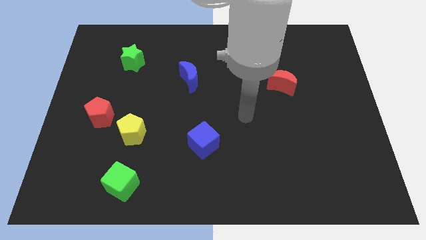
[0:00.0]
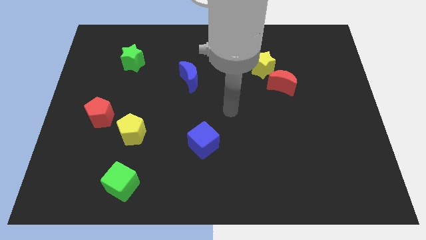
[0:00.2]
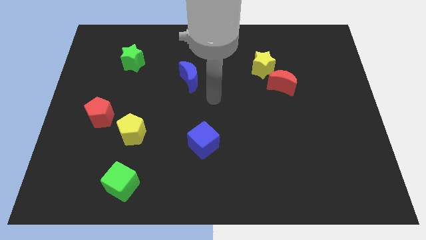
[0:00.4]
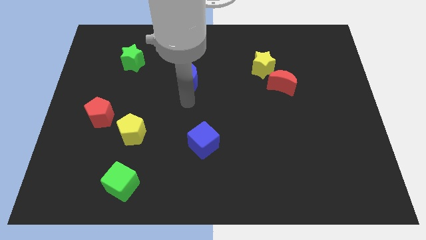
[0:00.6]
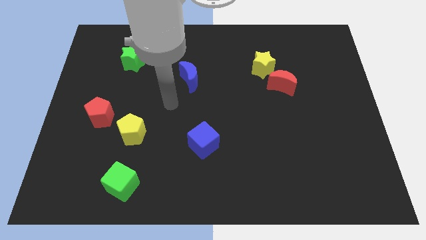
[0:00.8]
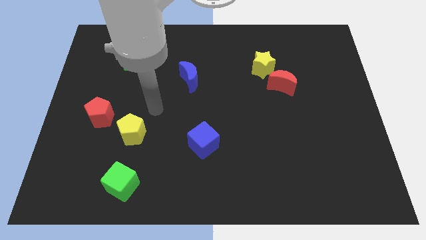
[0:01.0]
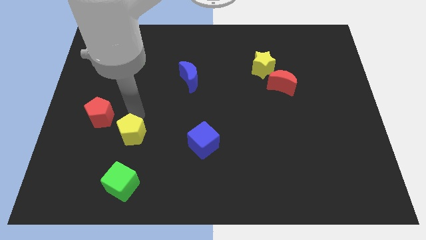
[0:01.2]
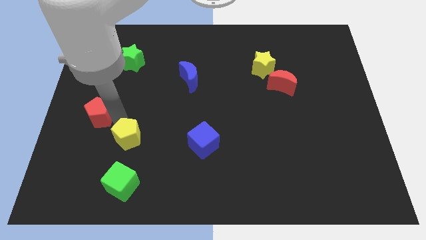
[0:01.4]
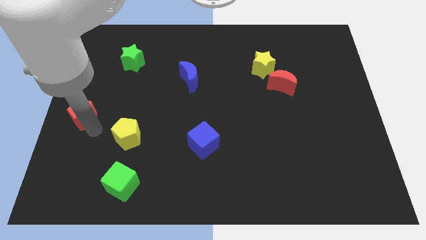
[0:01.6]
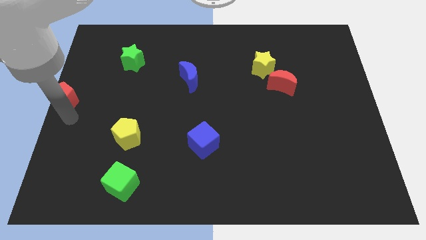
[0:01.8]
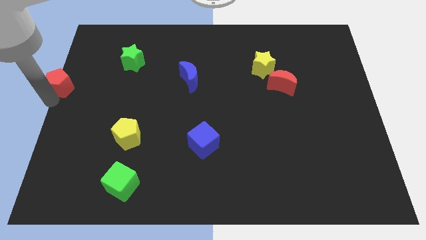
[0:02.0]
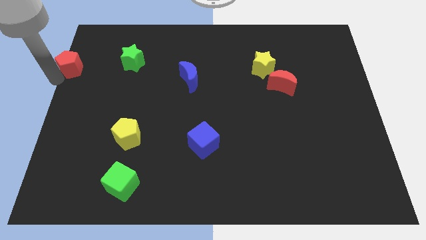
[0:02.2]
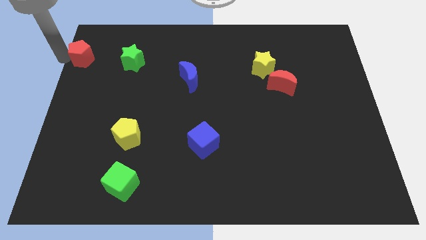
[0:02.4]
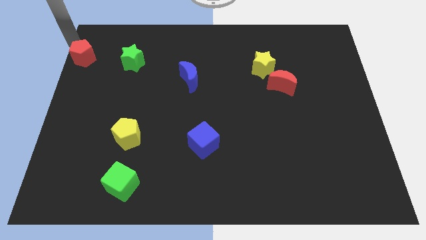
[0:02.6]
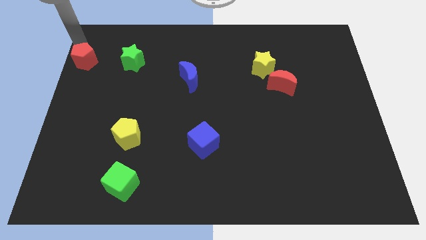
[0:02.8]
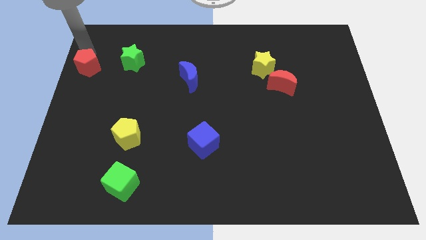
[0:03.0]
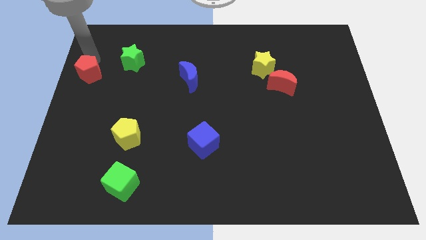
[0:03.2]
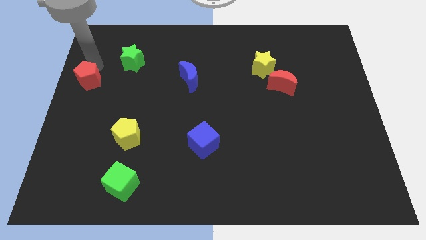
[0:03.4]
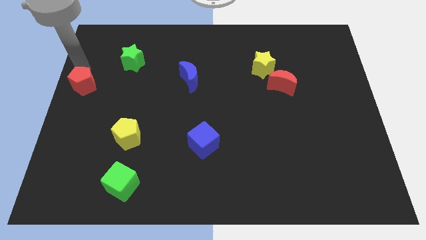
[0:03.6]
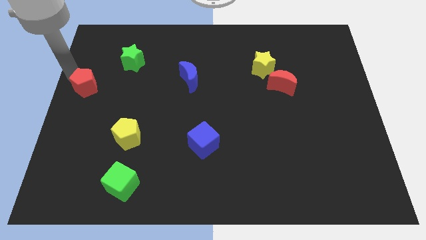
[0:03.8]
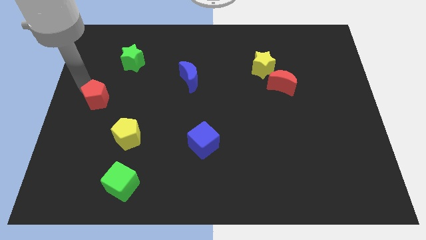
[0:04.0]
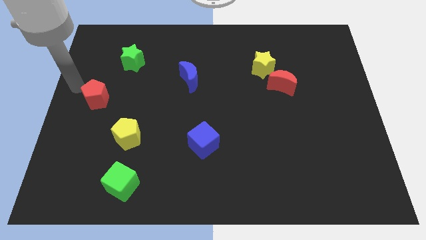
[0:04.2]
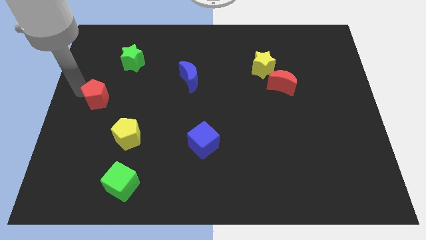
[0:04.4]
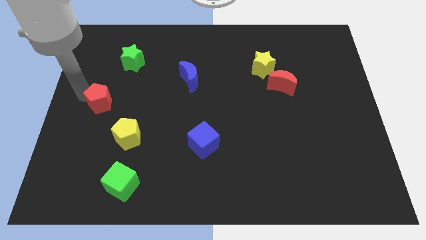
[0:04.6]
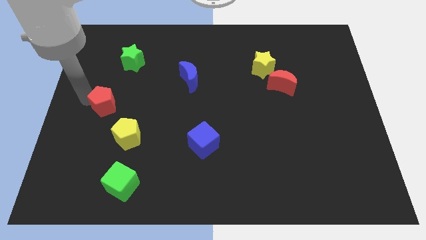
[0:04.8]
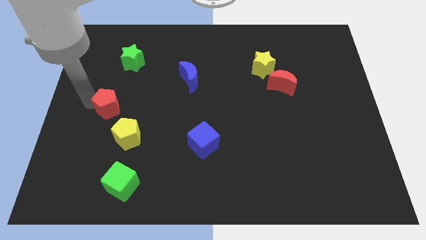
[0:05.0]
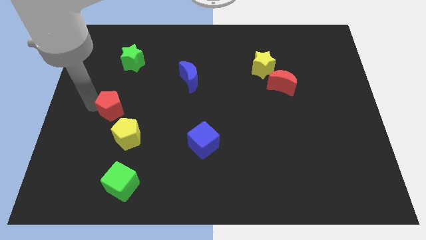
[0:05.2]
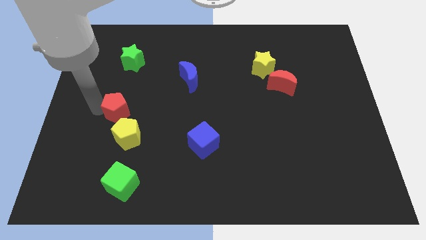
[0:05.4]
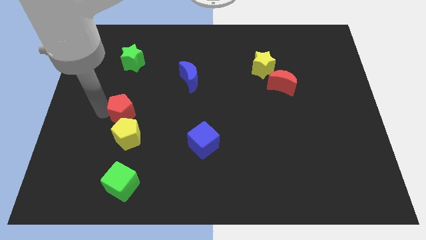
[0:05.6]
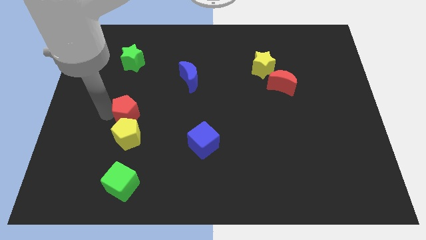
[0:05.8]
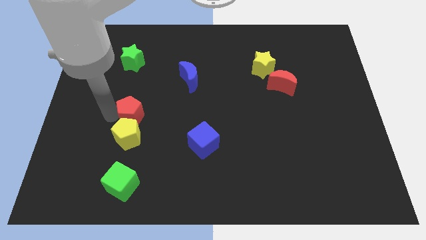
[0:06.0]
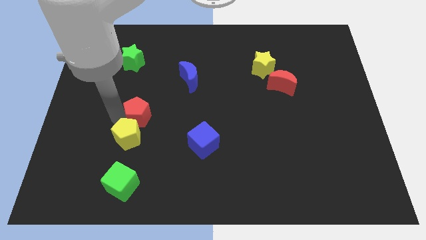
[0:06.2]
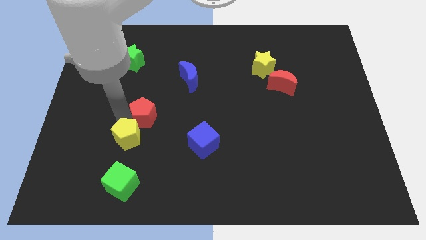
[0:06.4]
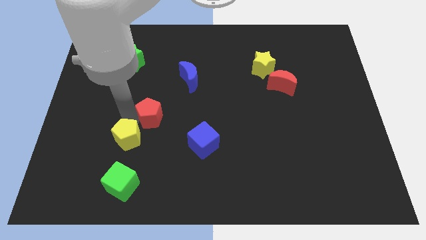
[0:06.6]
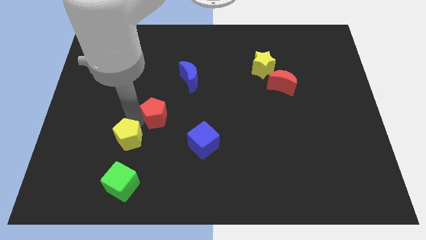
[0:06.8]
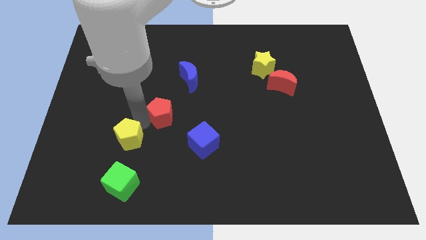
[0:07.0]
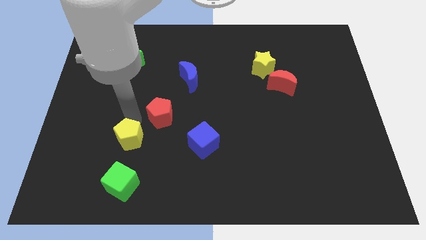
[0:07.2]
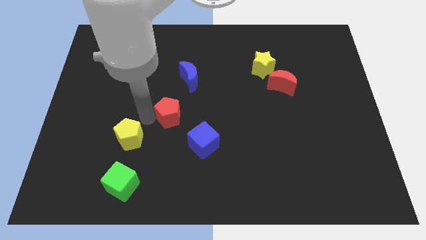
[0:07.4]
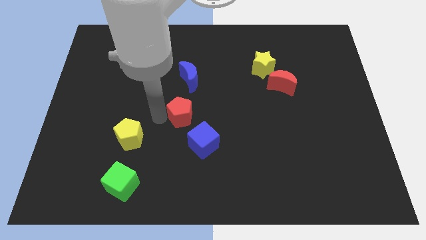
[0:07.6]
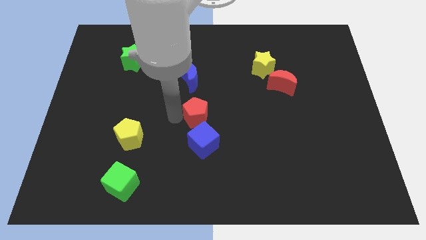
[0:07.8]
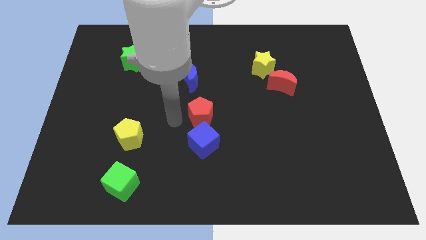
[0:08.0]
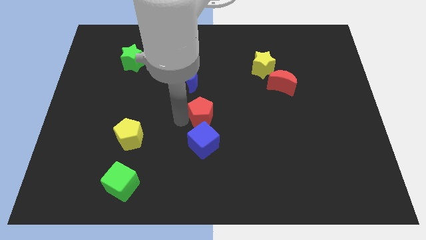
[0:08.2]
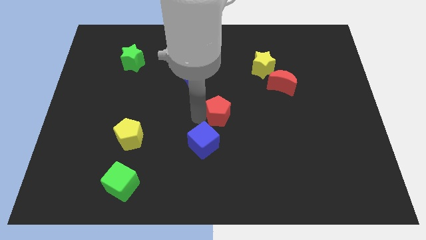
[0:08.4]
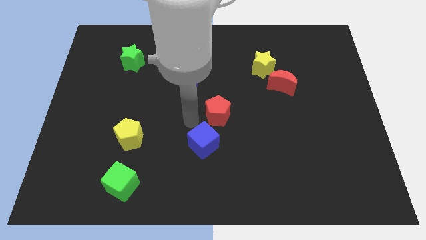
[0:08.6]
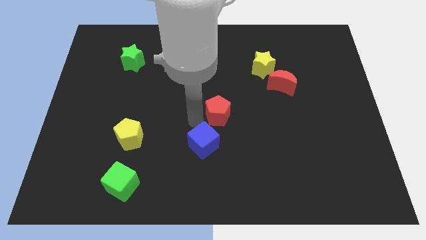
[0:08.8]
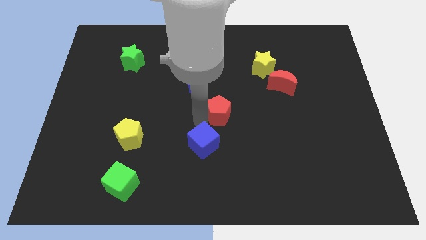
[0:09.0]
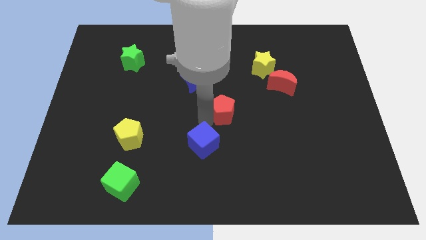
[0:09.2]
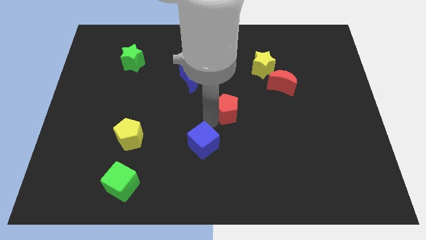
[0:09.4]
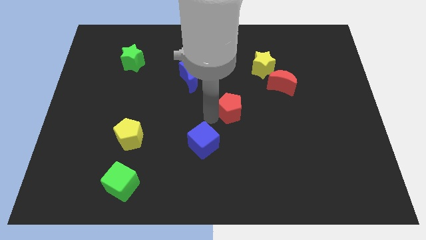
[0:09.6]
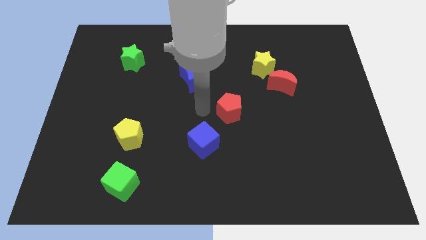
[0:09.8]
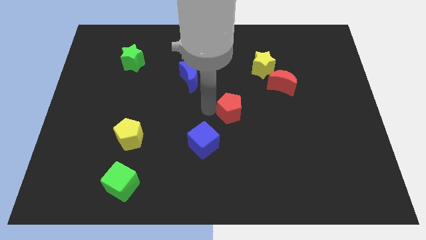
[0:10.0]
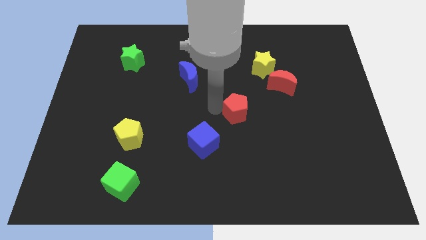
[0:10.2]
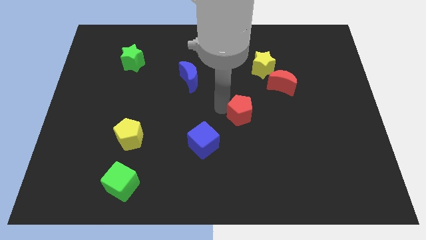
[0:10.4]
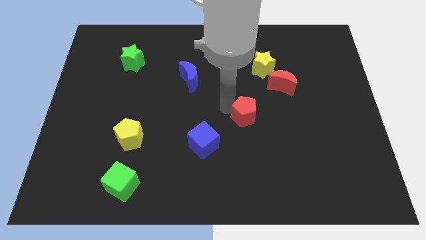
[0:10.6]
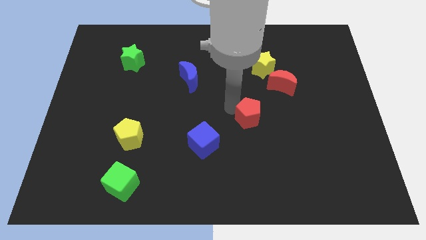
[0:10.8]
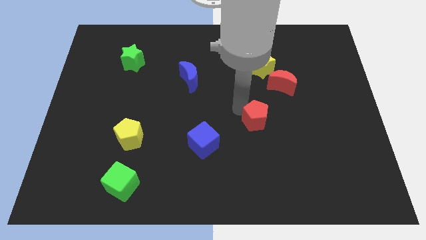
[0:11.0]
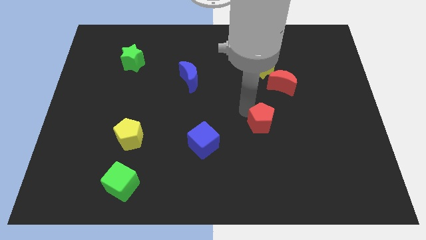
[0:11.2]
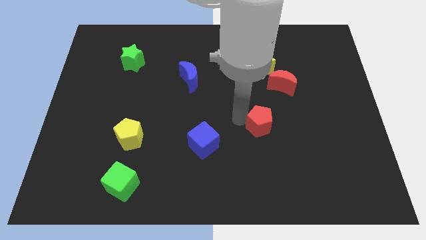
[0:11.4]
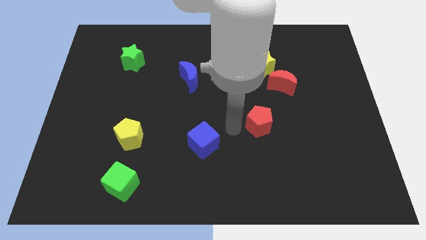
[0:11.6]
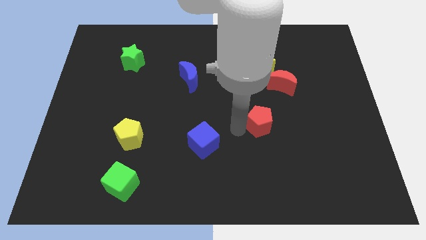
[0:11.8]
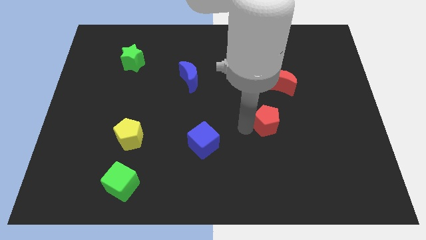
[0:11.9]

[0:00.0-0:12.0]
move the red pentagon to the bottom of the red moon

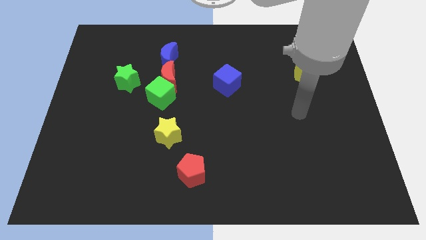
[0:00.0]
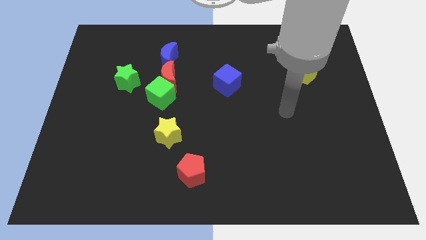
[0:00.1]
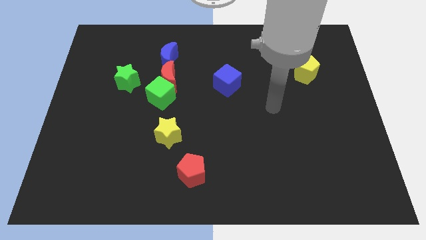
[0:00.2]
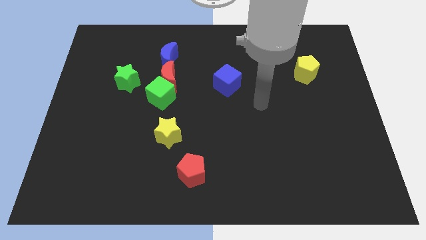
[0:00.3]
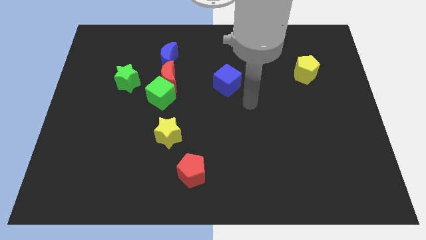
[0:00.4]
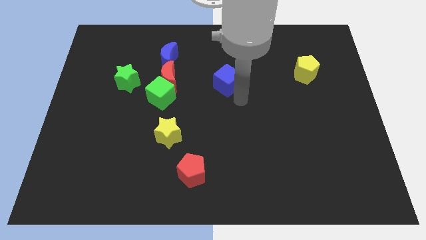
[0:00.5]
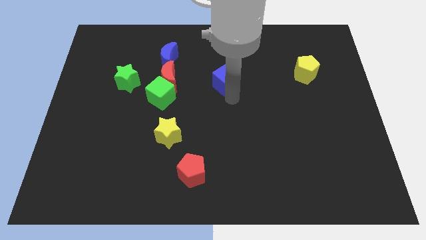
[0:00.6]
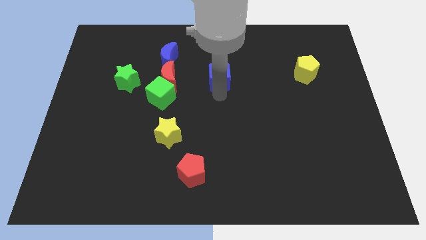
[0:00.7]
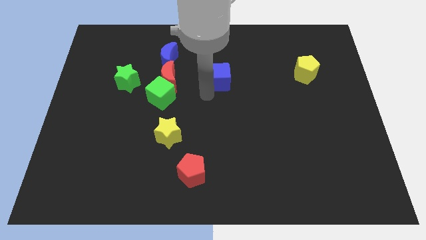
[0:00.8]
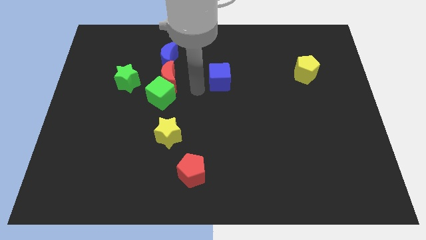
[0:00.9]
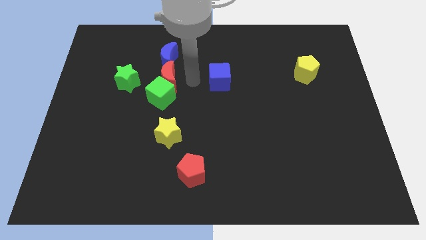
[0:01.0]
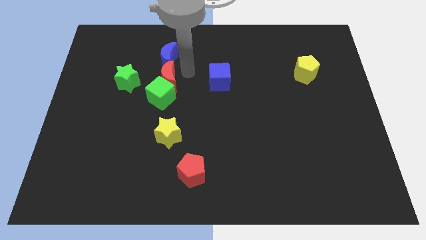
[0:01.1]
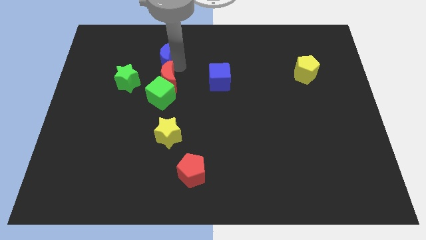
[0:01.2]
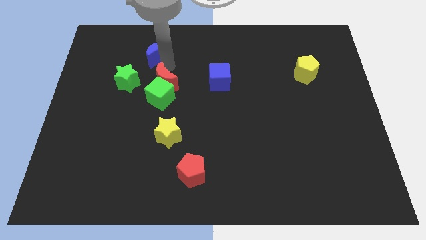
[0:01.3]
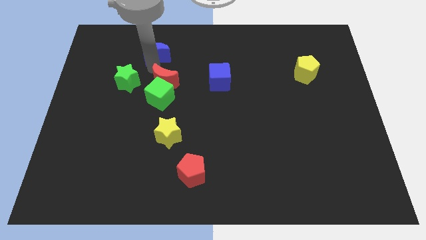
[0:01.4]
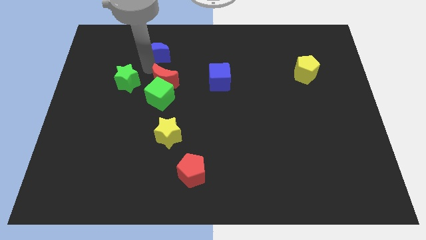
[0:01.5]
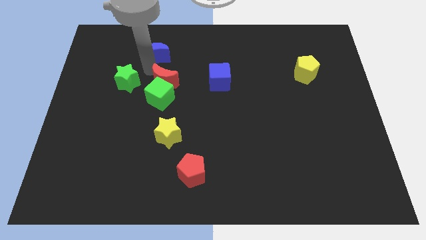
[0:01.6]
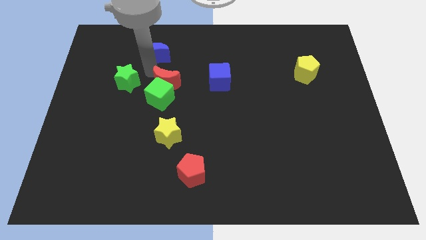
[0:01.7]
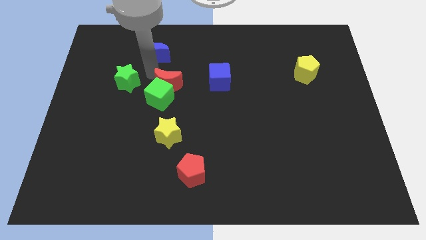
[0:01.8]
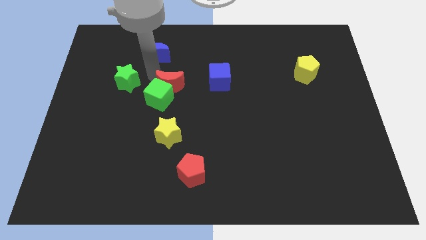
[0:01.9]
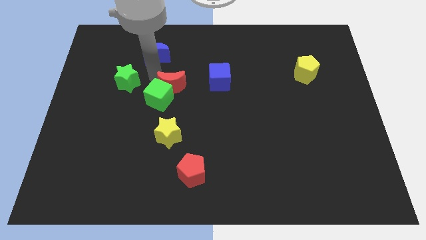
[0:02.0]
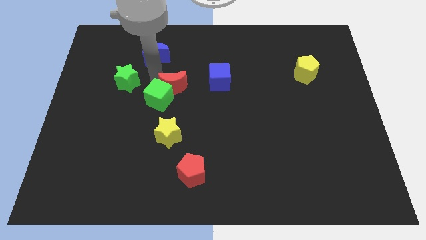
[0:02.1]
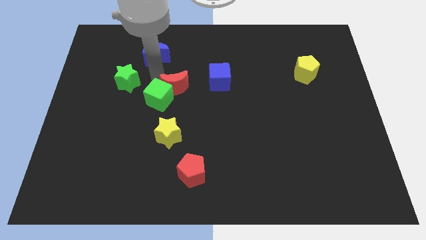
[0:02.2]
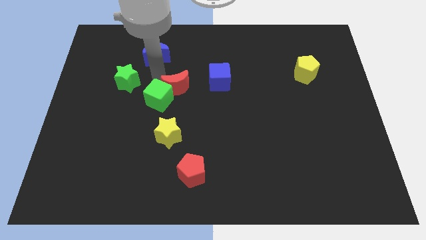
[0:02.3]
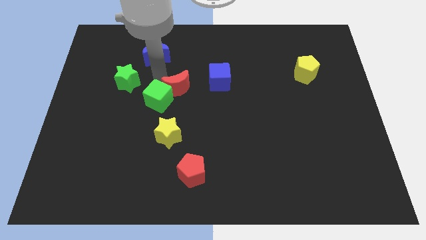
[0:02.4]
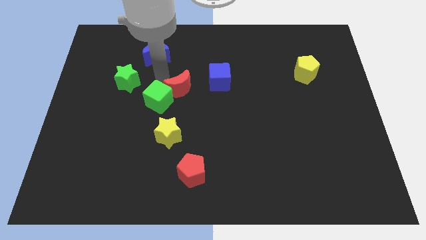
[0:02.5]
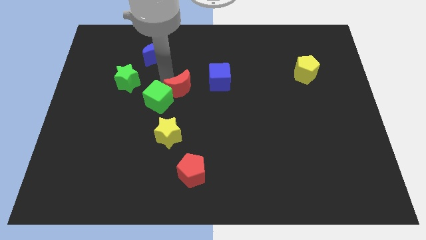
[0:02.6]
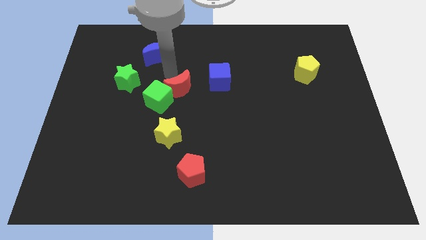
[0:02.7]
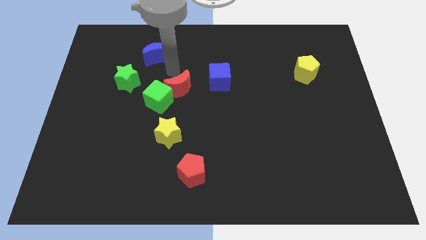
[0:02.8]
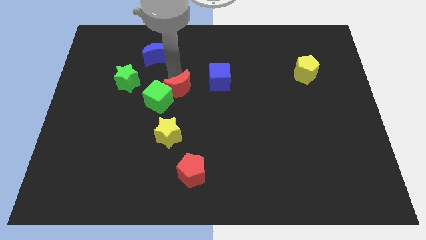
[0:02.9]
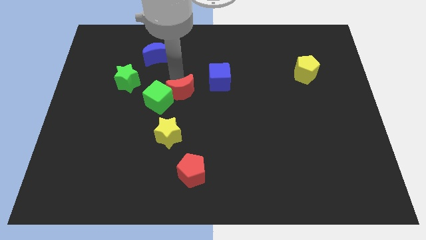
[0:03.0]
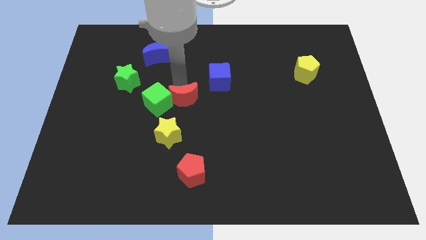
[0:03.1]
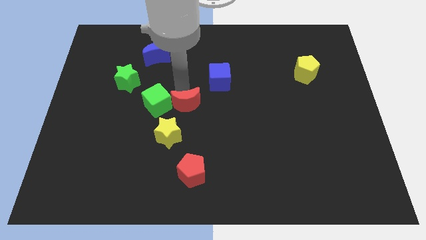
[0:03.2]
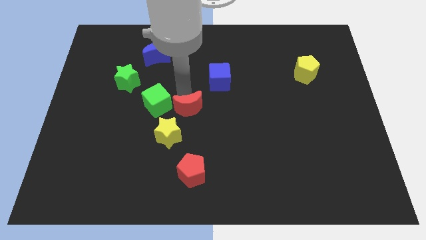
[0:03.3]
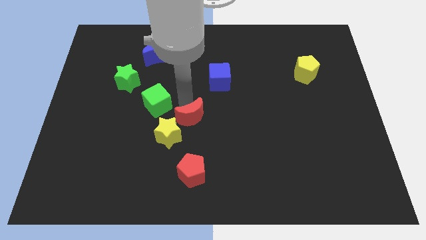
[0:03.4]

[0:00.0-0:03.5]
move the red moon to the right side of the yellow star
